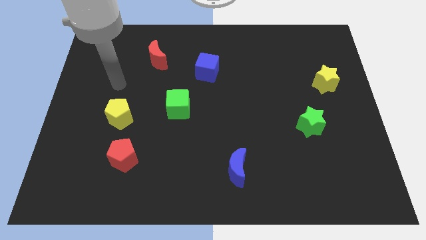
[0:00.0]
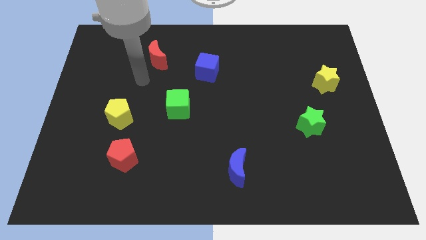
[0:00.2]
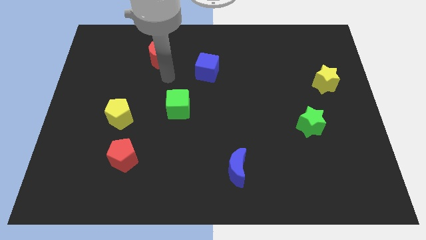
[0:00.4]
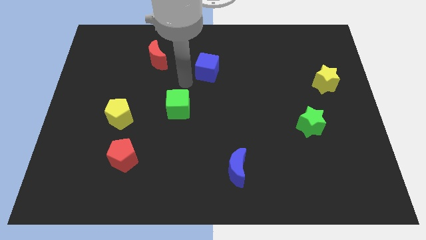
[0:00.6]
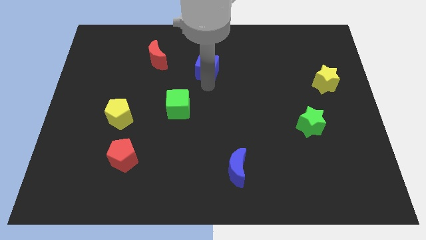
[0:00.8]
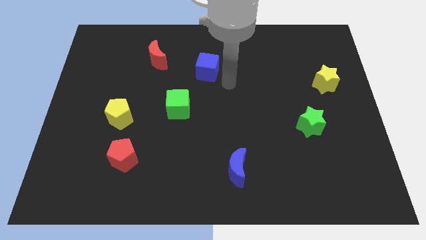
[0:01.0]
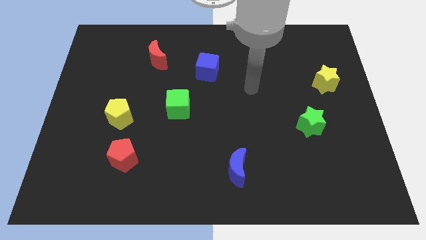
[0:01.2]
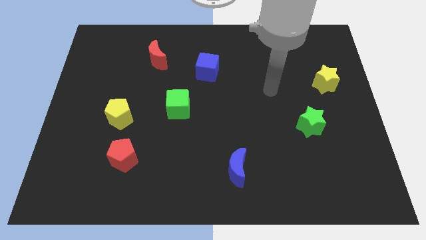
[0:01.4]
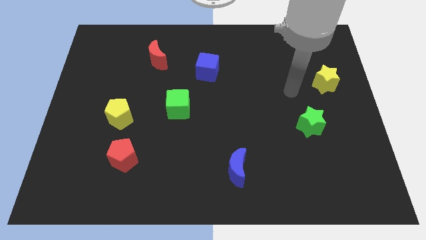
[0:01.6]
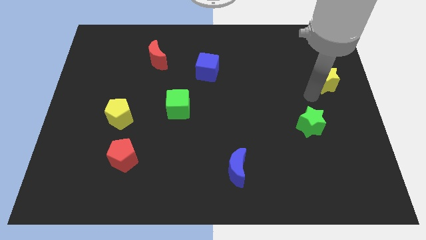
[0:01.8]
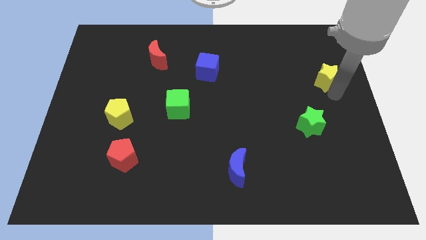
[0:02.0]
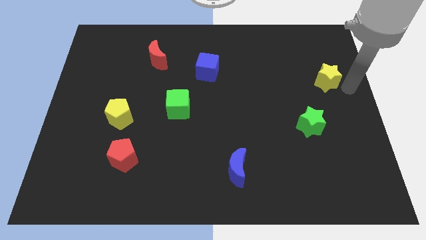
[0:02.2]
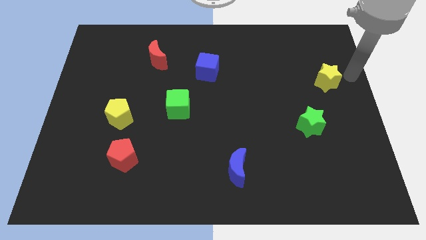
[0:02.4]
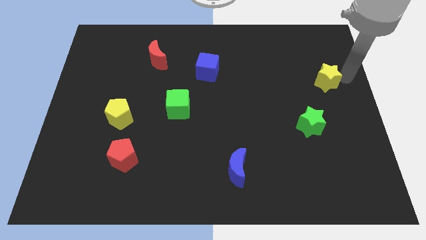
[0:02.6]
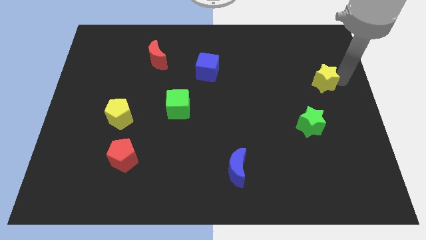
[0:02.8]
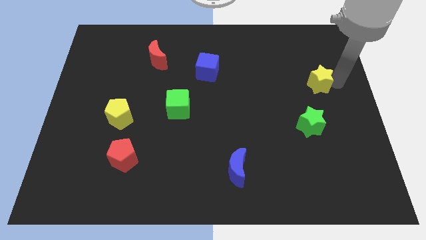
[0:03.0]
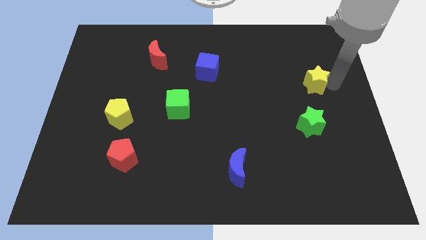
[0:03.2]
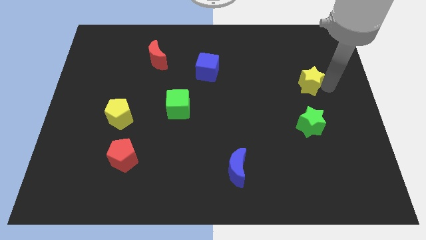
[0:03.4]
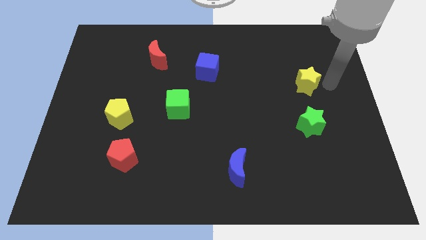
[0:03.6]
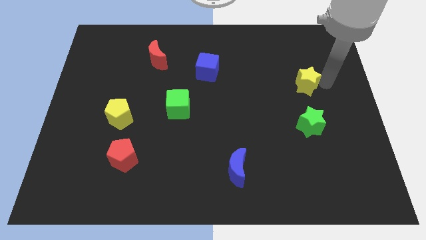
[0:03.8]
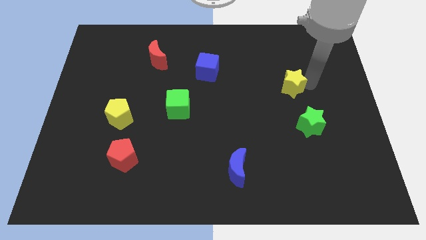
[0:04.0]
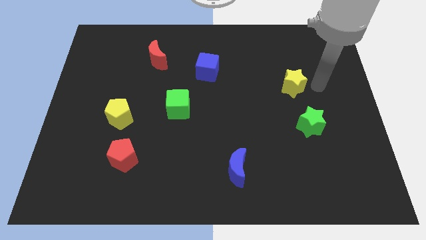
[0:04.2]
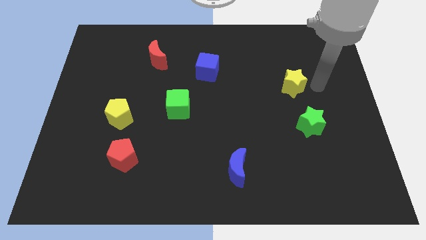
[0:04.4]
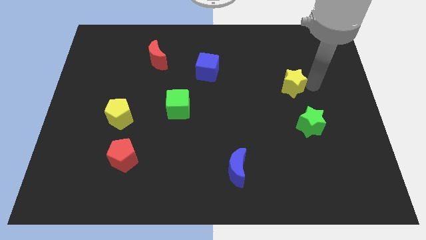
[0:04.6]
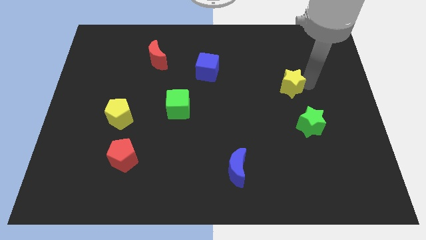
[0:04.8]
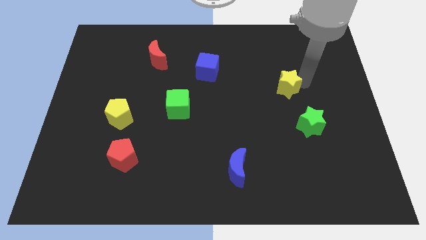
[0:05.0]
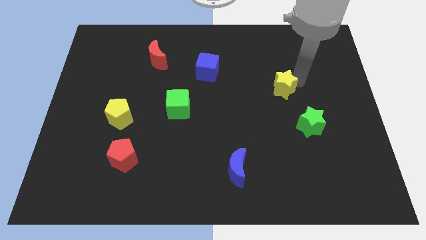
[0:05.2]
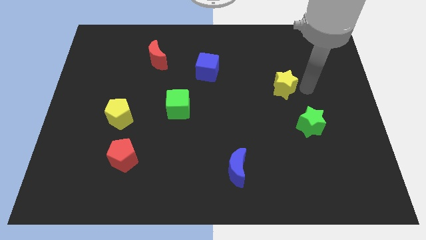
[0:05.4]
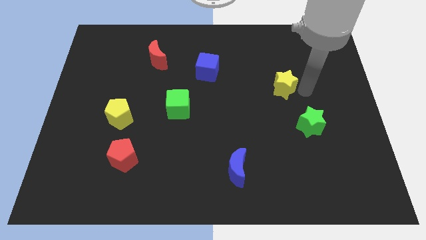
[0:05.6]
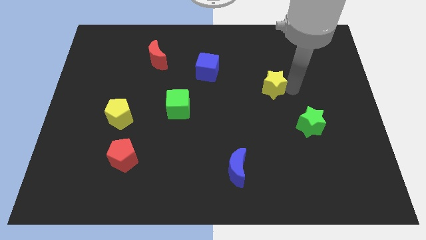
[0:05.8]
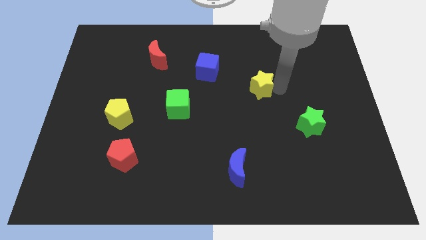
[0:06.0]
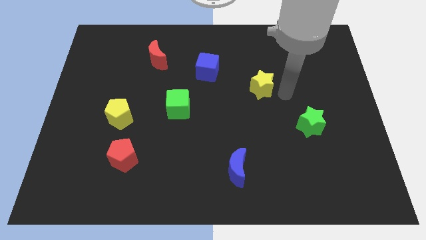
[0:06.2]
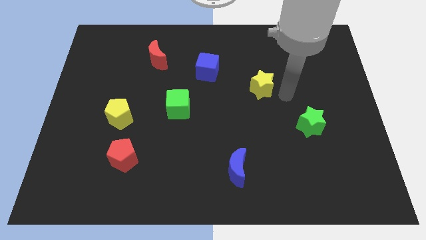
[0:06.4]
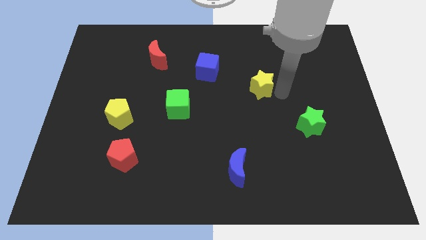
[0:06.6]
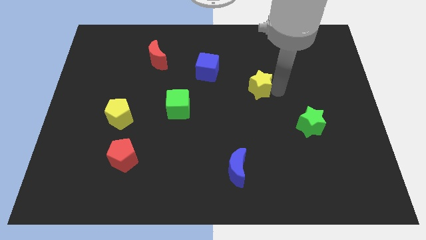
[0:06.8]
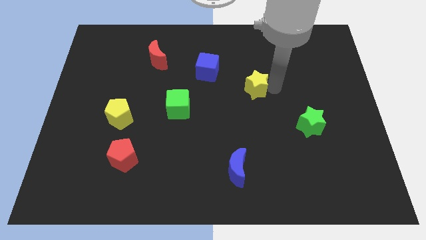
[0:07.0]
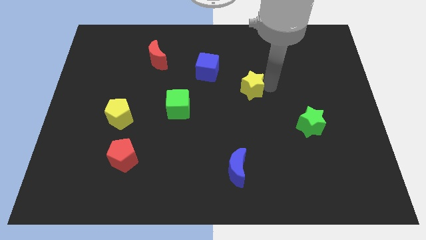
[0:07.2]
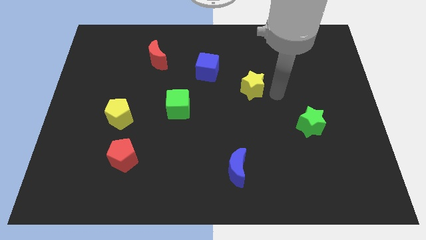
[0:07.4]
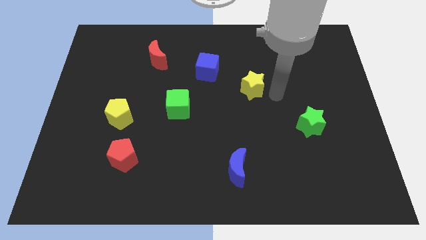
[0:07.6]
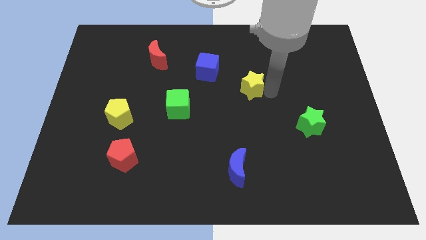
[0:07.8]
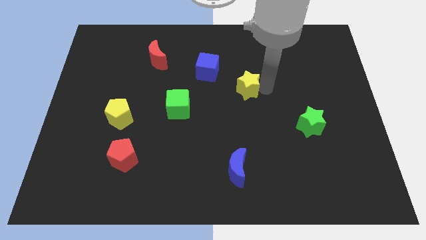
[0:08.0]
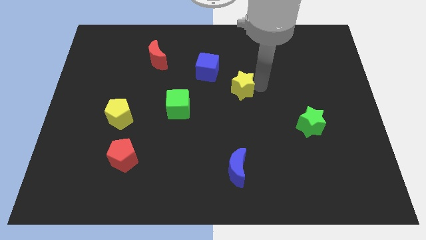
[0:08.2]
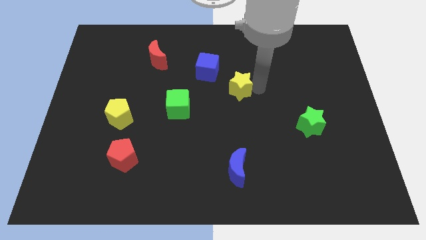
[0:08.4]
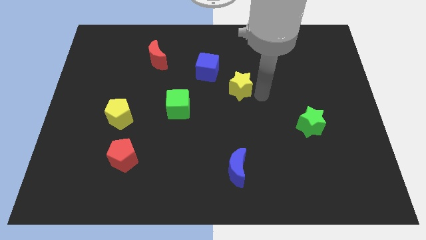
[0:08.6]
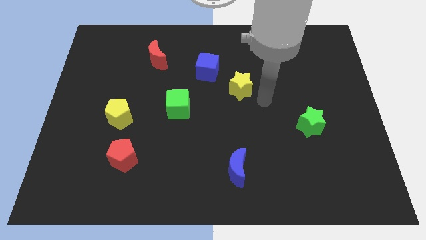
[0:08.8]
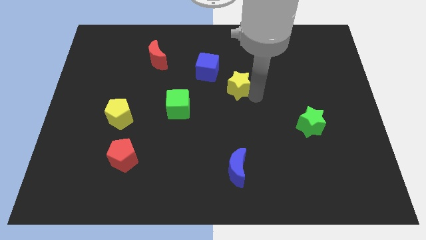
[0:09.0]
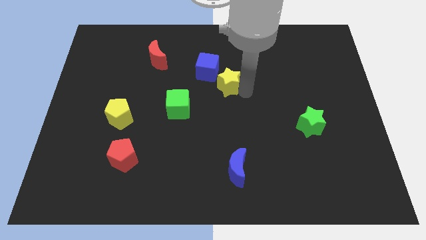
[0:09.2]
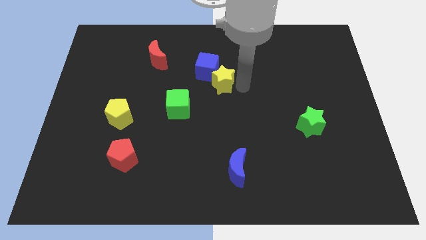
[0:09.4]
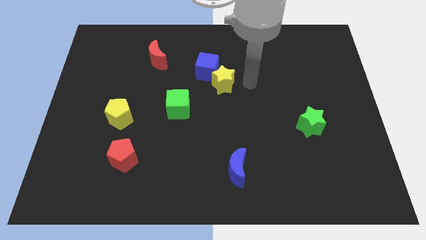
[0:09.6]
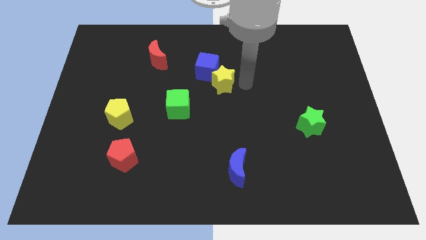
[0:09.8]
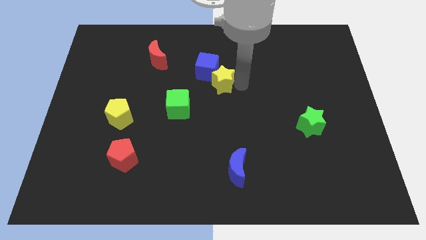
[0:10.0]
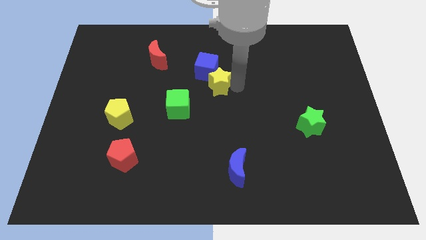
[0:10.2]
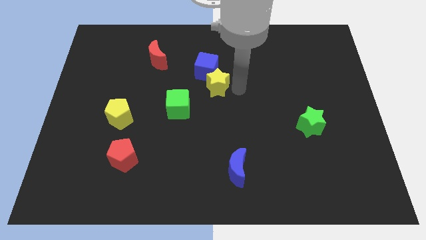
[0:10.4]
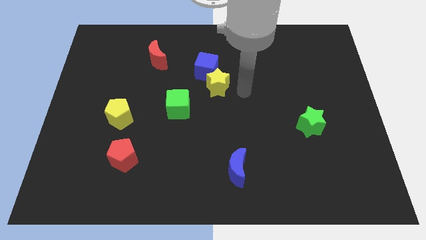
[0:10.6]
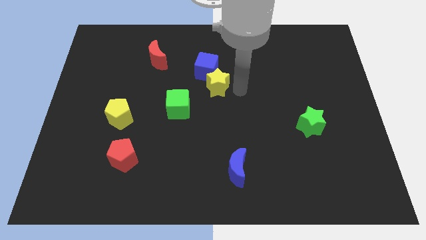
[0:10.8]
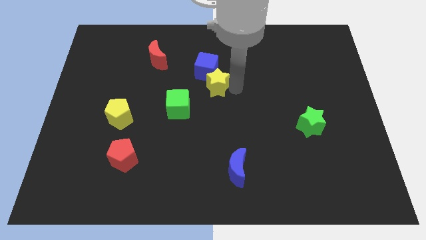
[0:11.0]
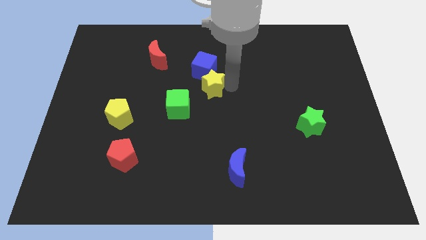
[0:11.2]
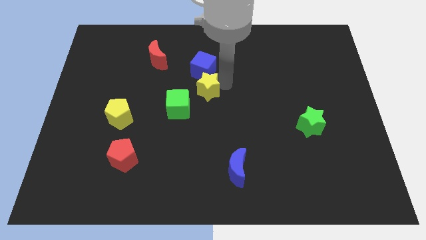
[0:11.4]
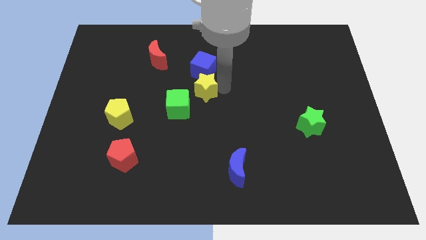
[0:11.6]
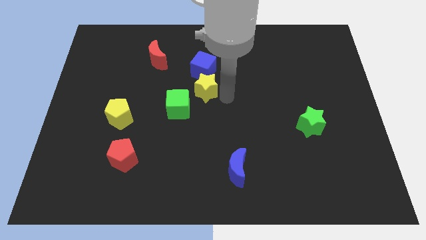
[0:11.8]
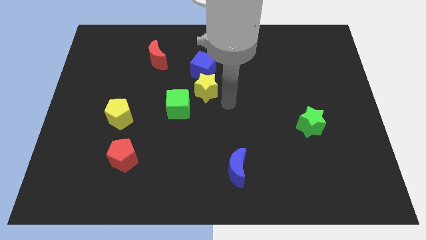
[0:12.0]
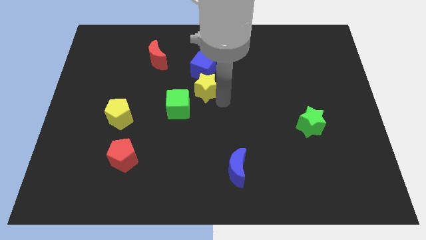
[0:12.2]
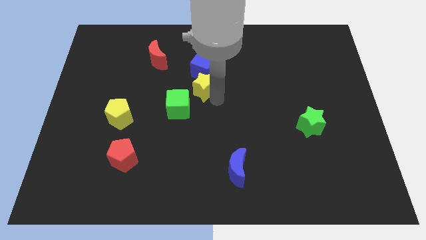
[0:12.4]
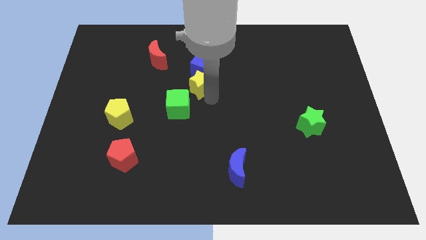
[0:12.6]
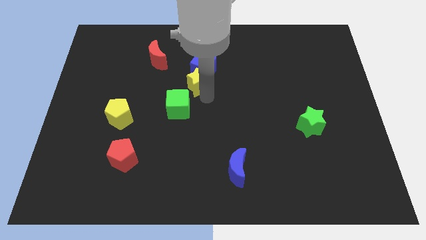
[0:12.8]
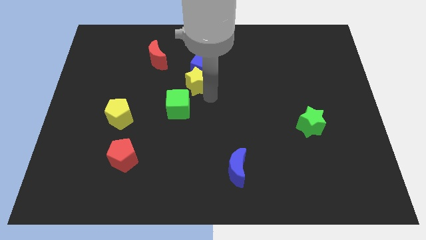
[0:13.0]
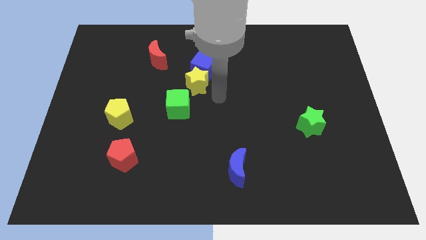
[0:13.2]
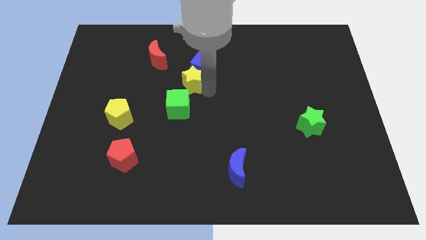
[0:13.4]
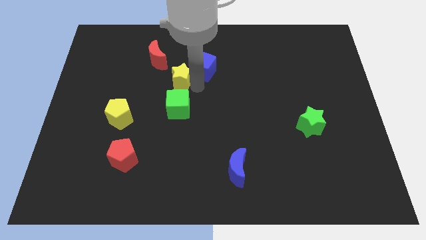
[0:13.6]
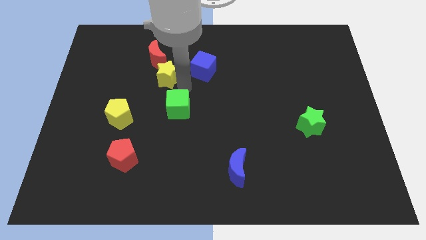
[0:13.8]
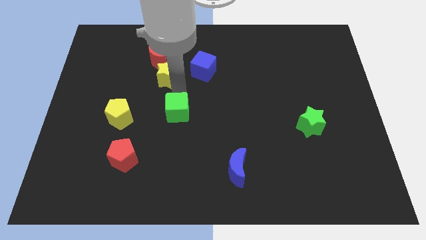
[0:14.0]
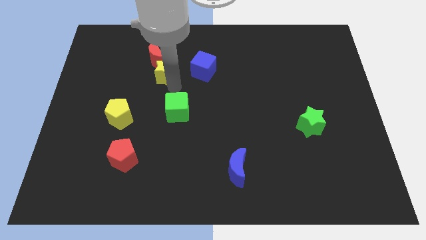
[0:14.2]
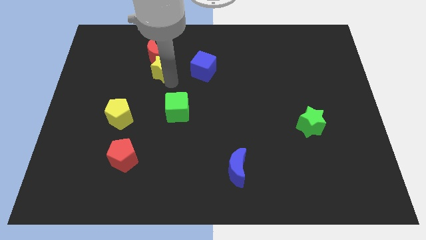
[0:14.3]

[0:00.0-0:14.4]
put the yellow star close to the red moon
